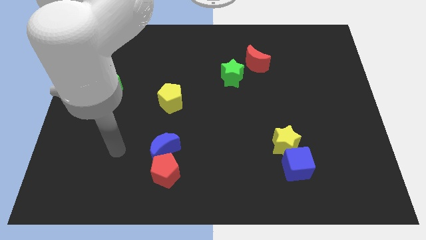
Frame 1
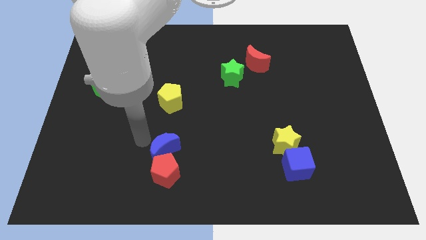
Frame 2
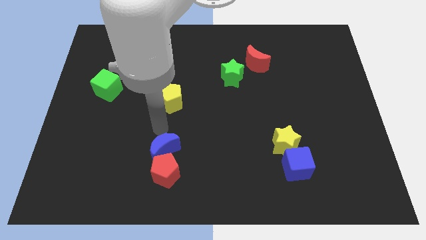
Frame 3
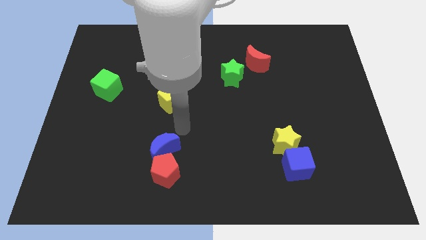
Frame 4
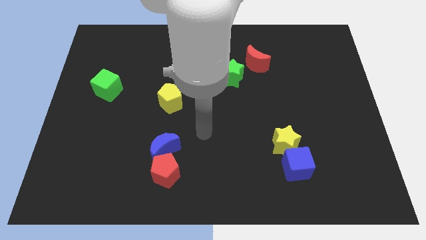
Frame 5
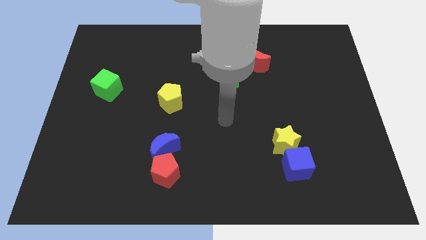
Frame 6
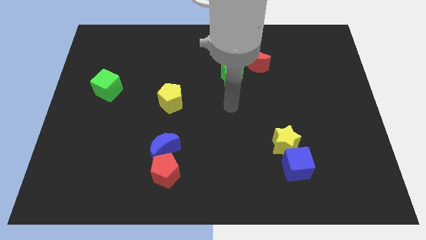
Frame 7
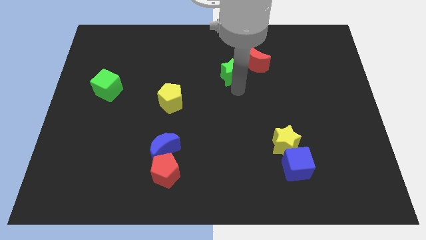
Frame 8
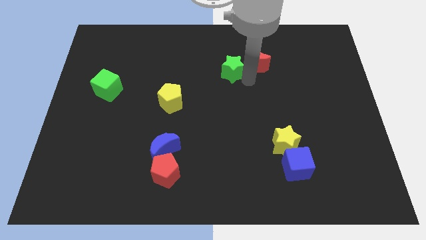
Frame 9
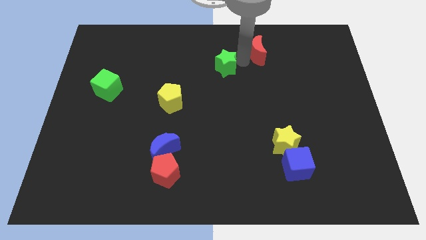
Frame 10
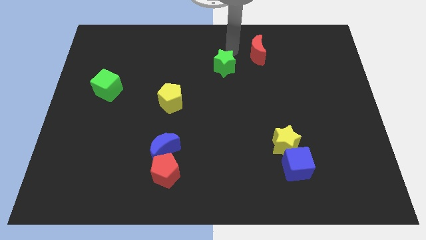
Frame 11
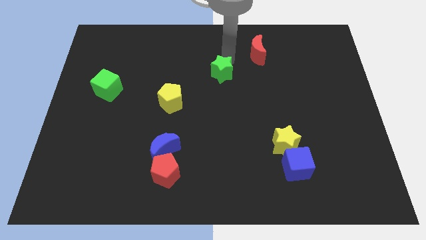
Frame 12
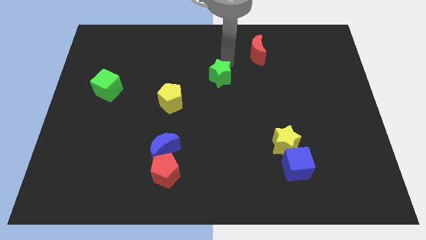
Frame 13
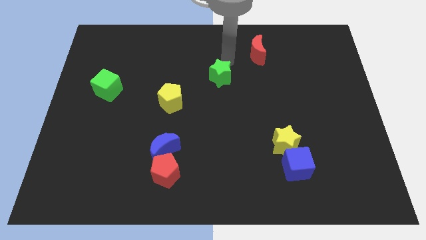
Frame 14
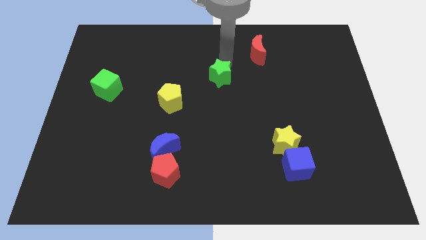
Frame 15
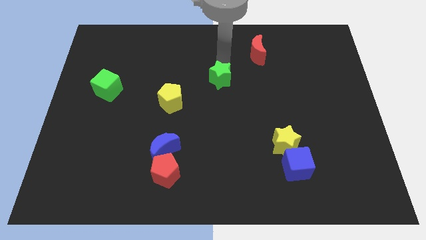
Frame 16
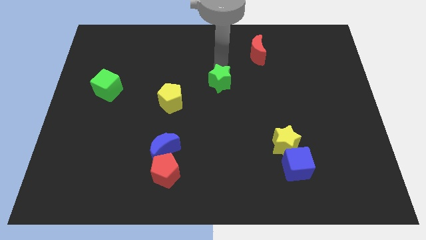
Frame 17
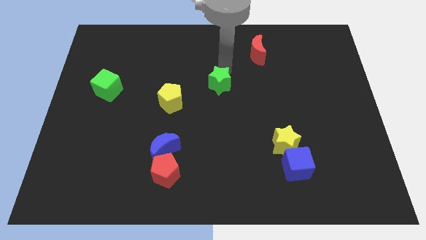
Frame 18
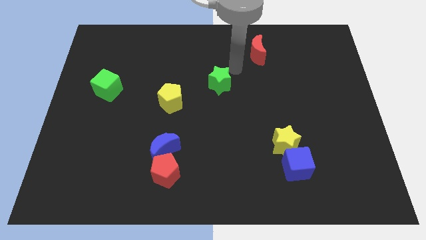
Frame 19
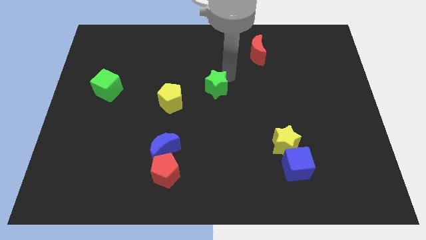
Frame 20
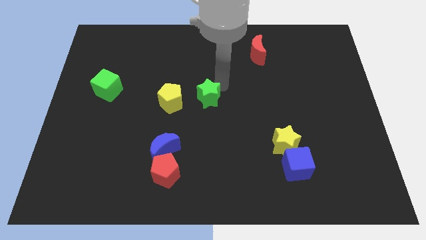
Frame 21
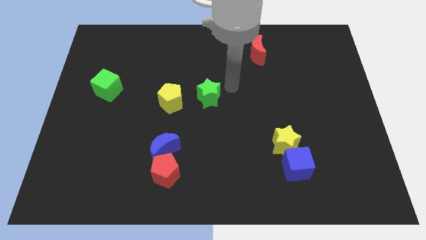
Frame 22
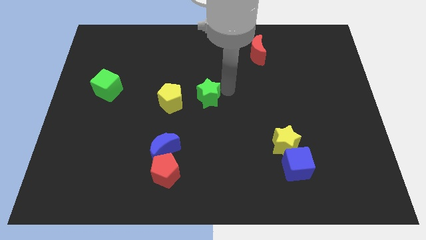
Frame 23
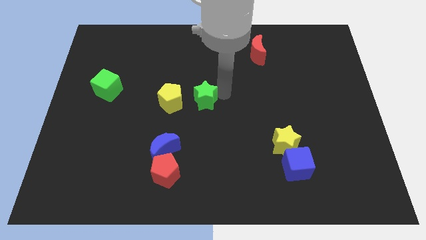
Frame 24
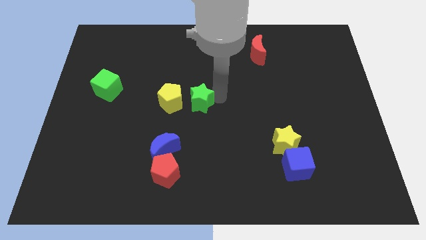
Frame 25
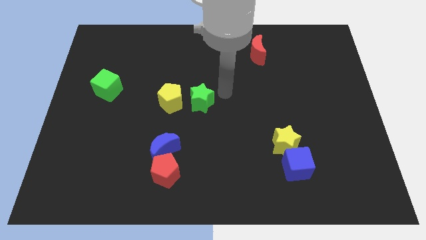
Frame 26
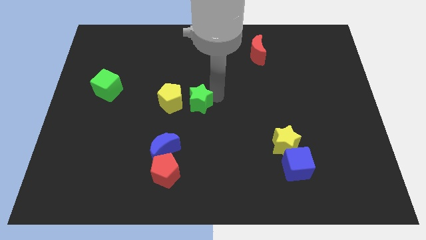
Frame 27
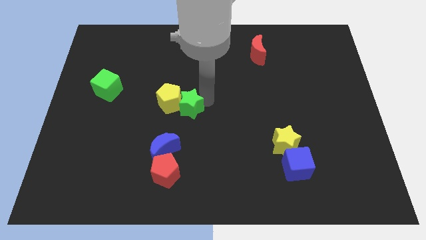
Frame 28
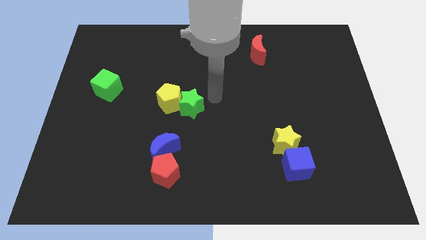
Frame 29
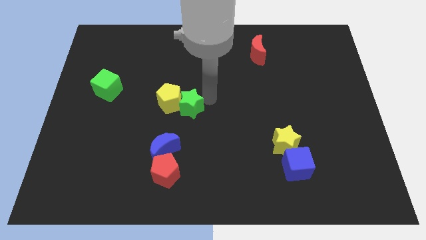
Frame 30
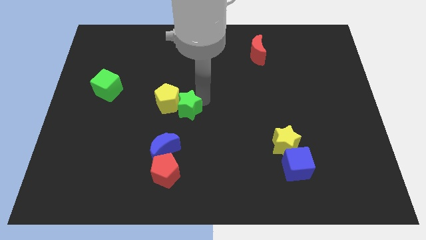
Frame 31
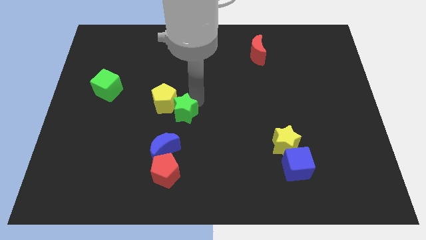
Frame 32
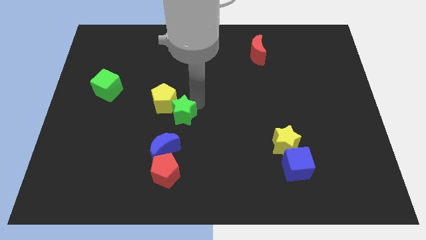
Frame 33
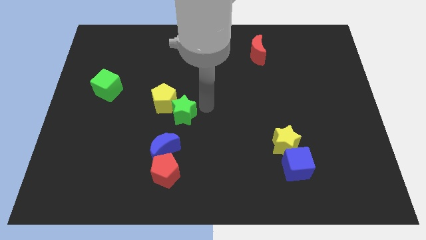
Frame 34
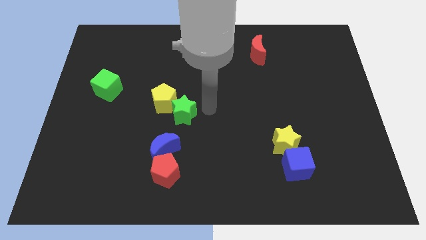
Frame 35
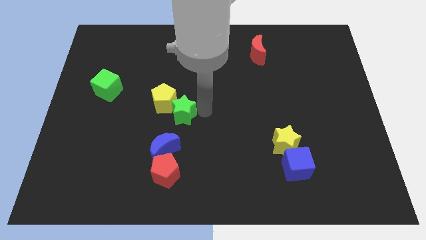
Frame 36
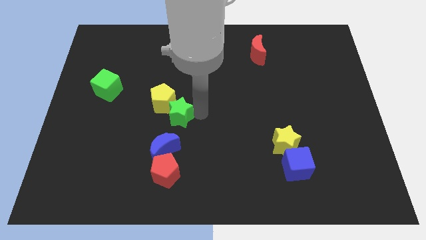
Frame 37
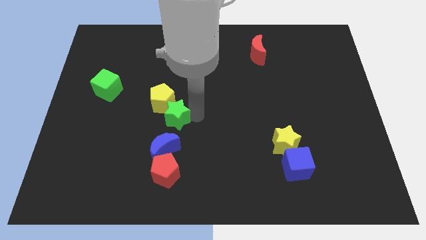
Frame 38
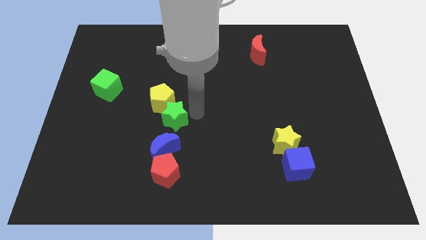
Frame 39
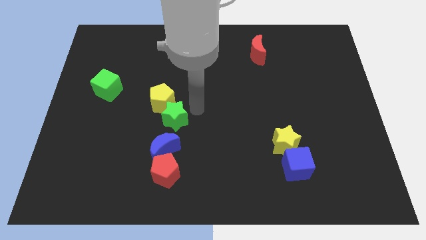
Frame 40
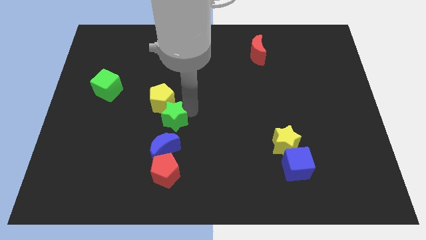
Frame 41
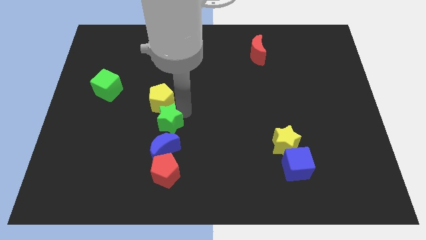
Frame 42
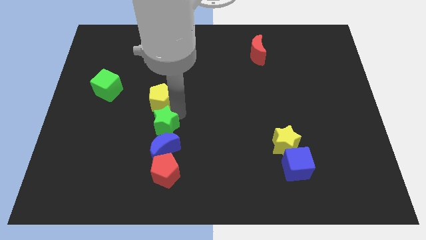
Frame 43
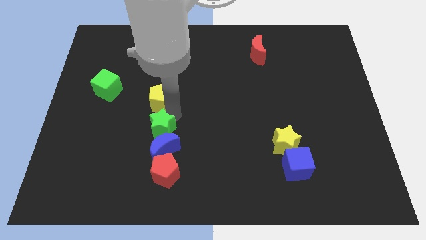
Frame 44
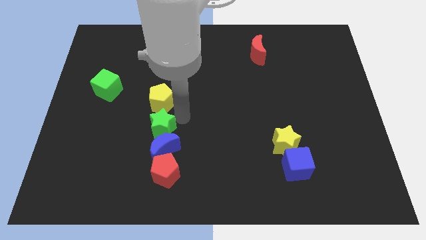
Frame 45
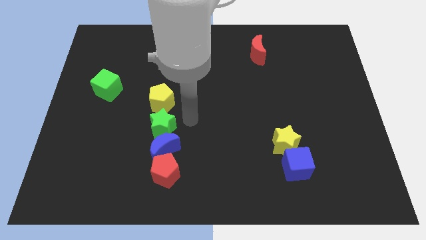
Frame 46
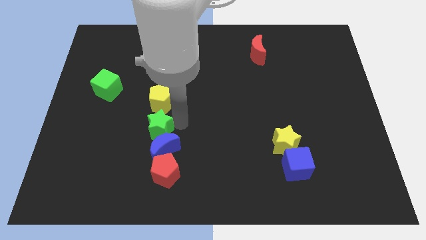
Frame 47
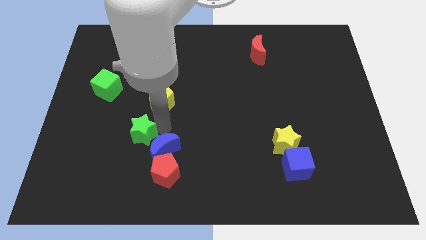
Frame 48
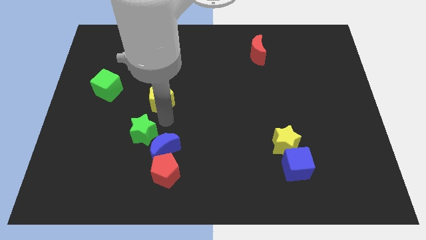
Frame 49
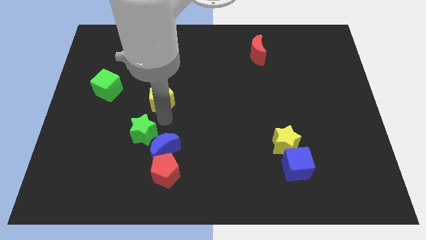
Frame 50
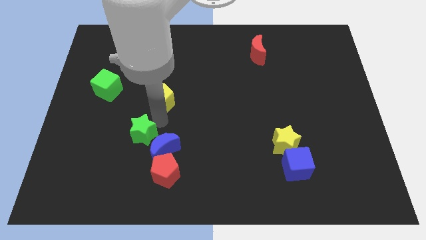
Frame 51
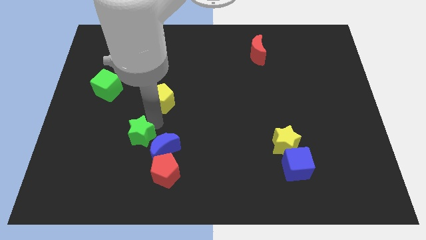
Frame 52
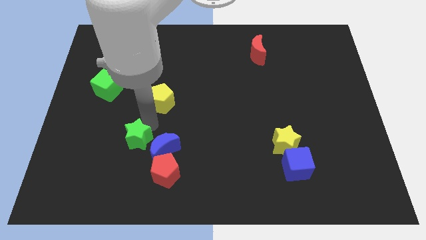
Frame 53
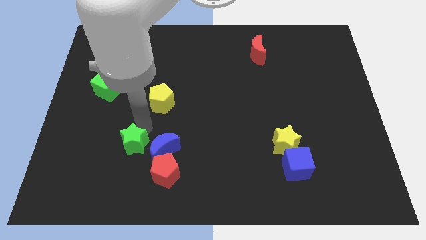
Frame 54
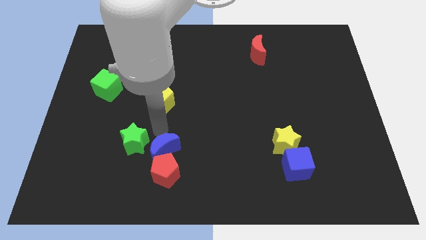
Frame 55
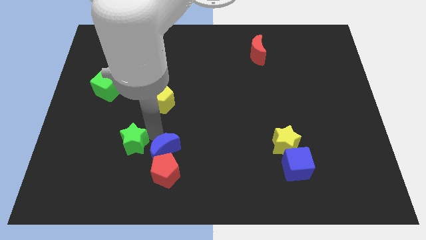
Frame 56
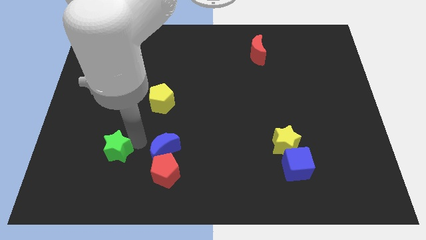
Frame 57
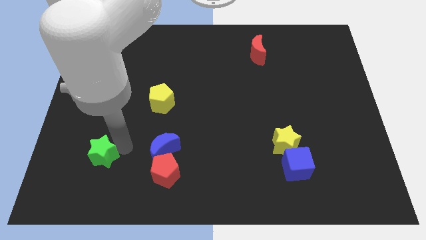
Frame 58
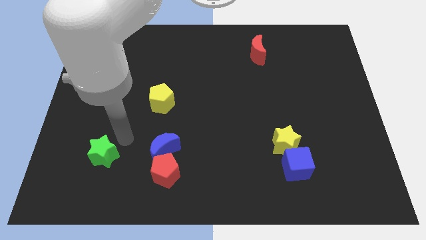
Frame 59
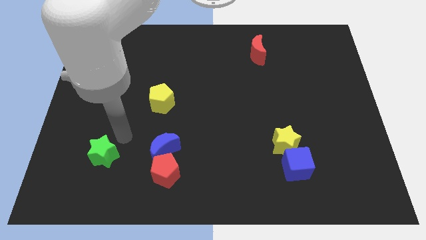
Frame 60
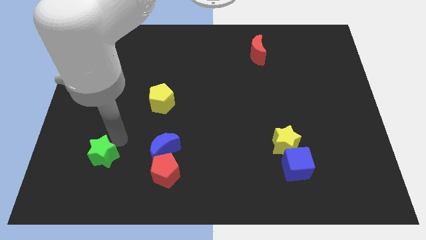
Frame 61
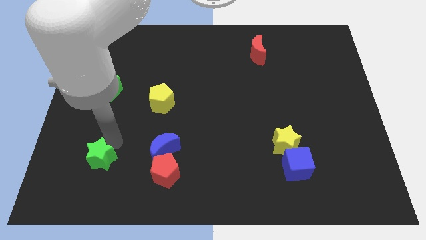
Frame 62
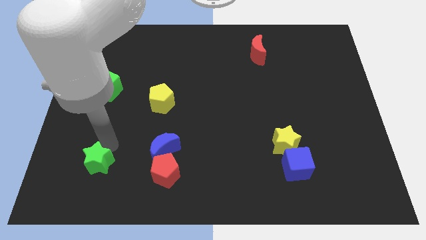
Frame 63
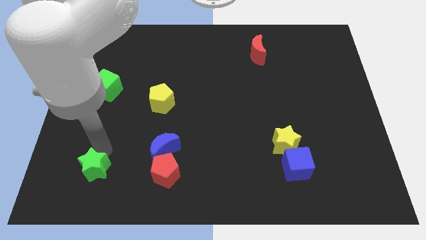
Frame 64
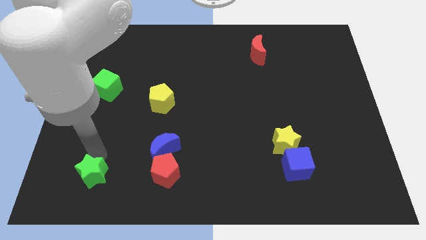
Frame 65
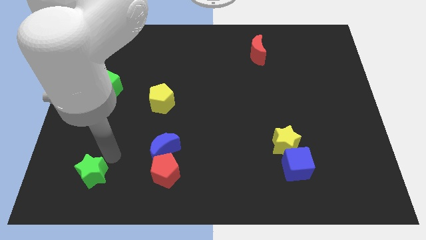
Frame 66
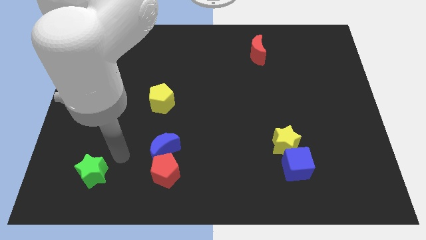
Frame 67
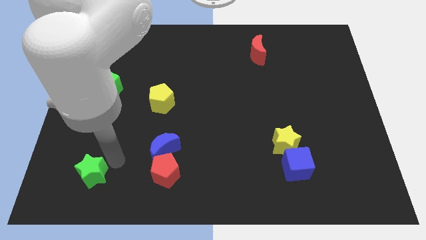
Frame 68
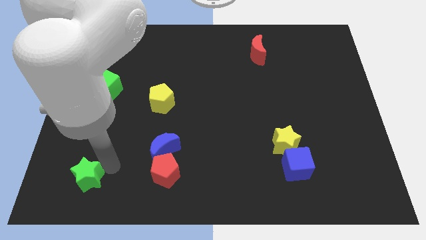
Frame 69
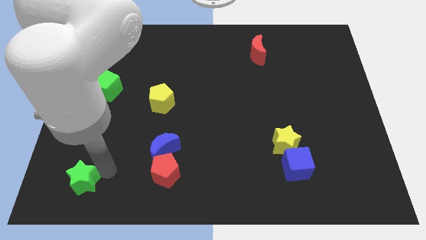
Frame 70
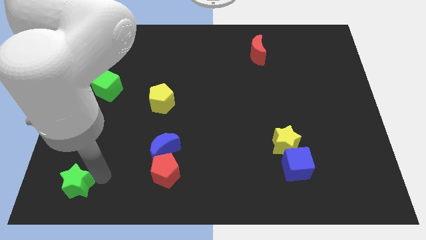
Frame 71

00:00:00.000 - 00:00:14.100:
push the green star to the bottom left corner
